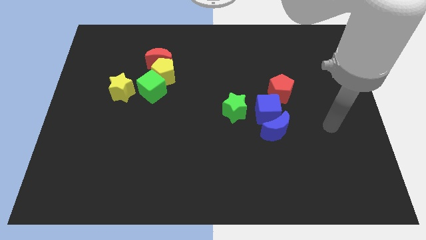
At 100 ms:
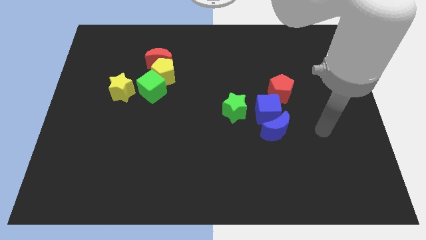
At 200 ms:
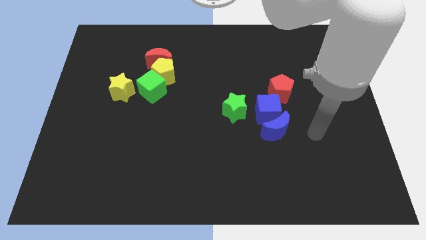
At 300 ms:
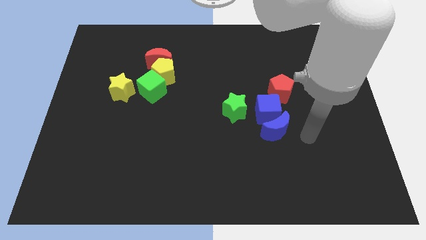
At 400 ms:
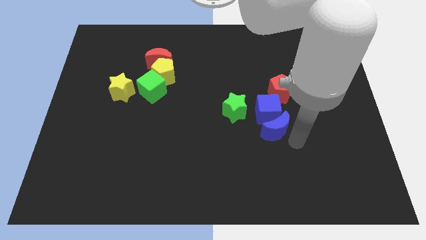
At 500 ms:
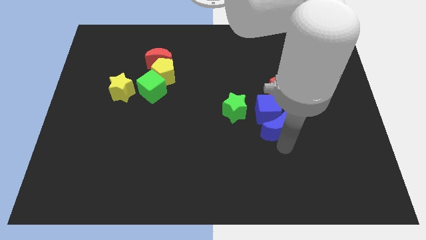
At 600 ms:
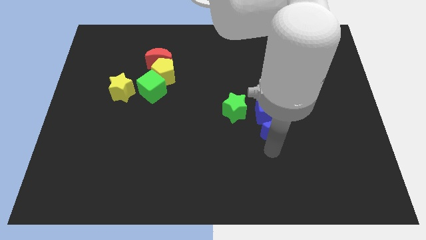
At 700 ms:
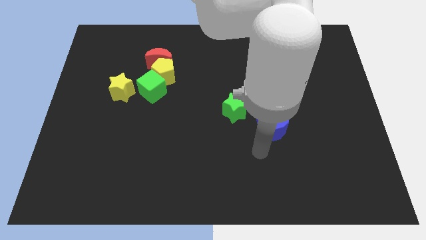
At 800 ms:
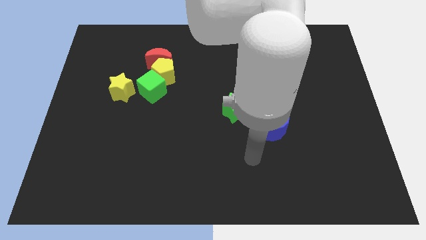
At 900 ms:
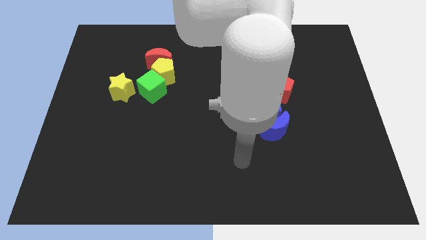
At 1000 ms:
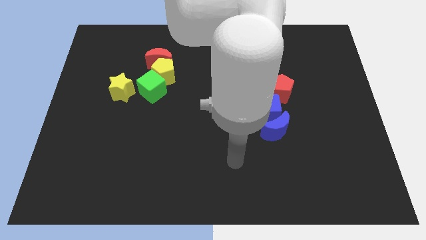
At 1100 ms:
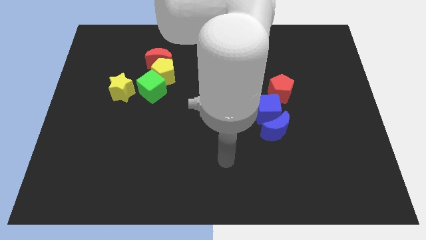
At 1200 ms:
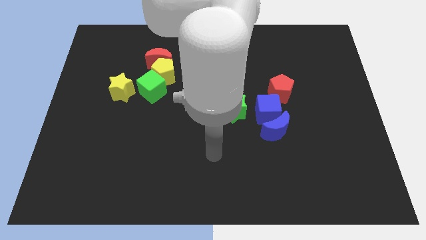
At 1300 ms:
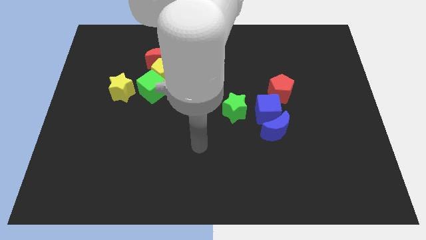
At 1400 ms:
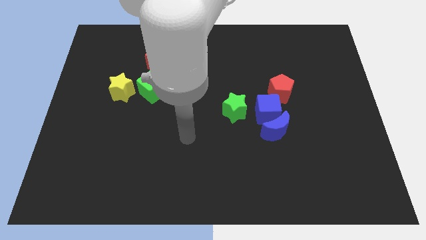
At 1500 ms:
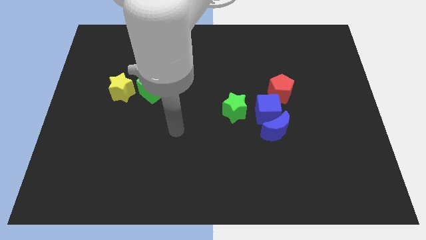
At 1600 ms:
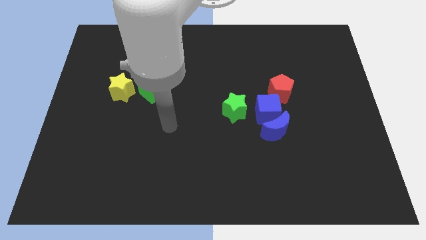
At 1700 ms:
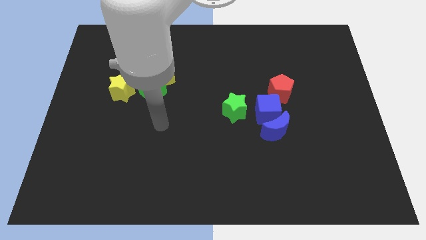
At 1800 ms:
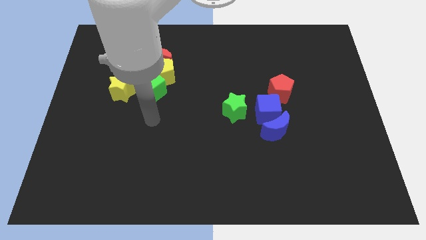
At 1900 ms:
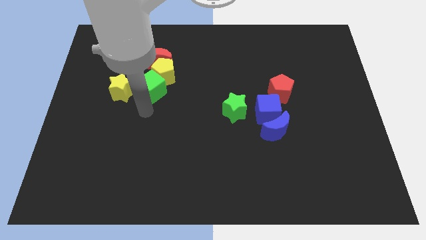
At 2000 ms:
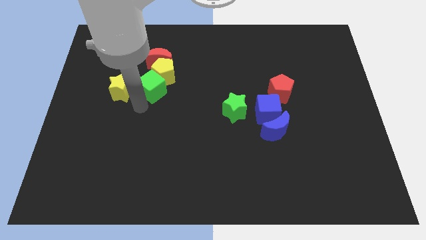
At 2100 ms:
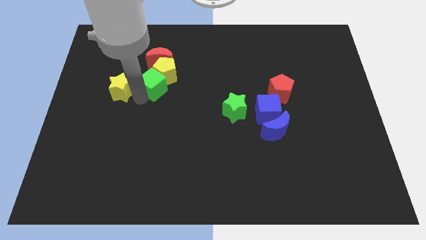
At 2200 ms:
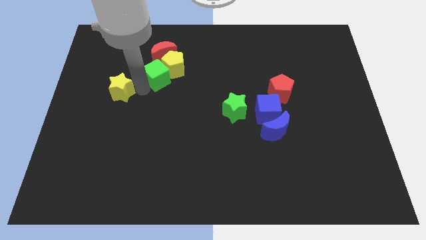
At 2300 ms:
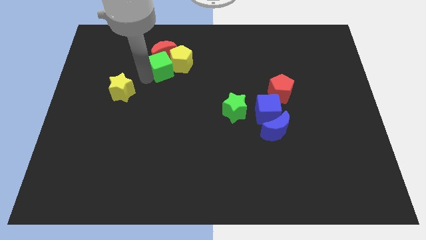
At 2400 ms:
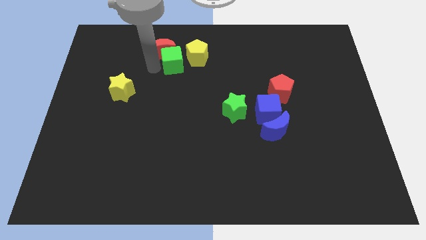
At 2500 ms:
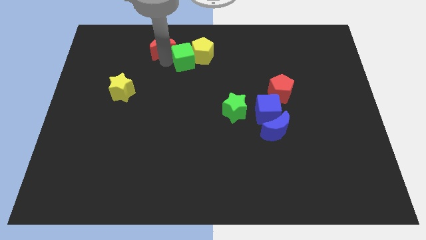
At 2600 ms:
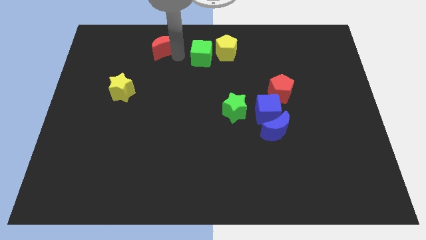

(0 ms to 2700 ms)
move the yellow pentagon away from the red moon and green cube

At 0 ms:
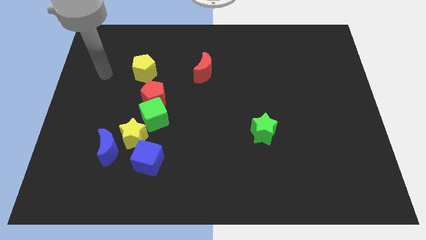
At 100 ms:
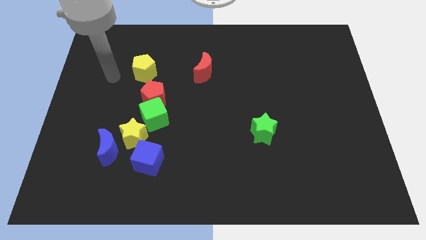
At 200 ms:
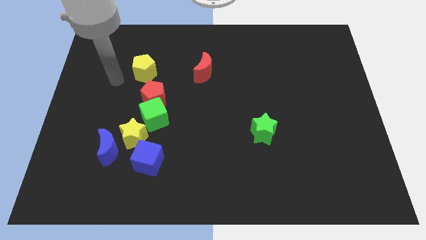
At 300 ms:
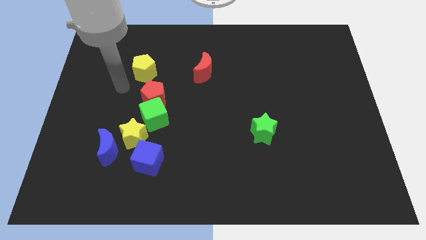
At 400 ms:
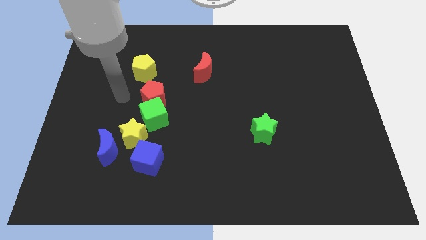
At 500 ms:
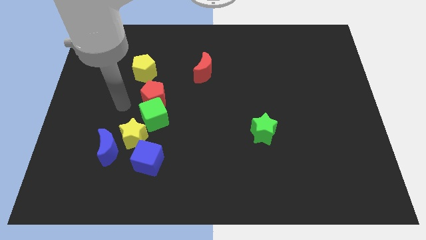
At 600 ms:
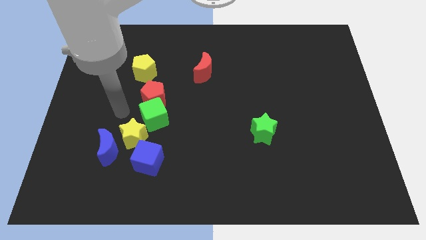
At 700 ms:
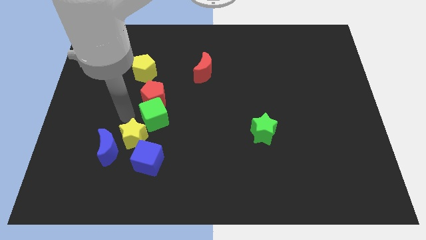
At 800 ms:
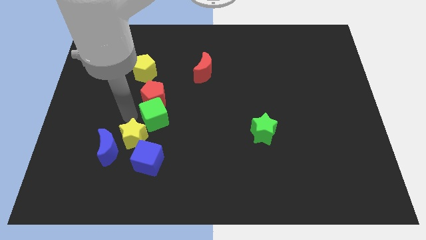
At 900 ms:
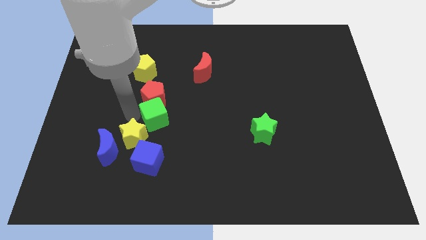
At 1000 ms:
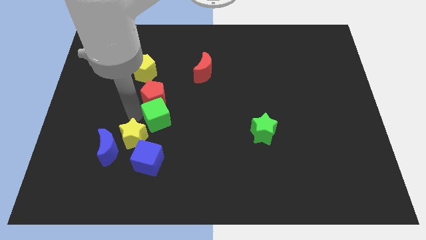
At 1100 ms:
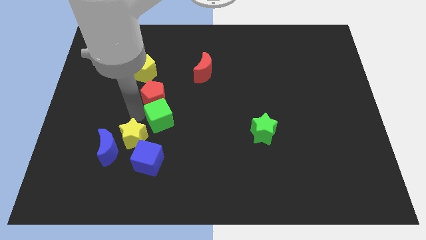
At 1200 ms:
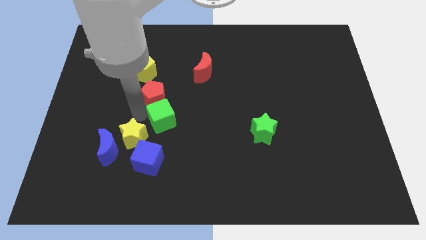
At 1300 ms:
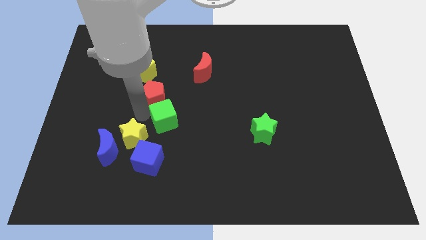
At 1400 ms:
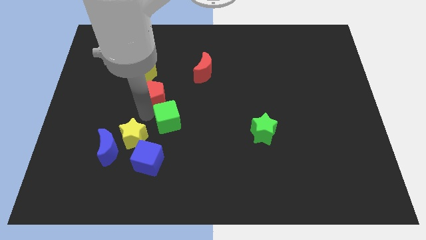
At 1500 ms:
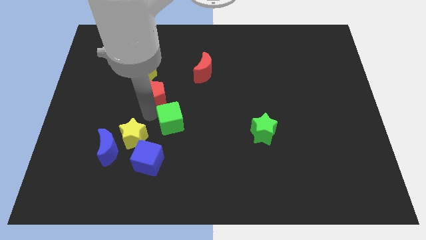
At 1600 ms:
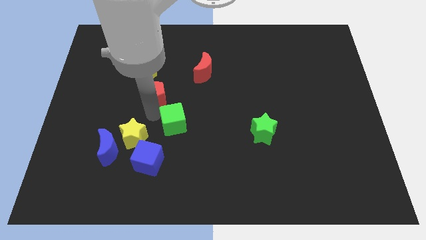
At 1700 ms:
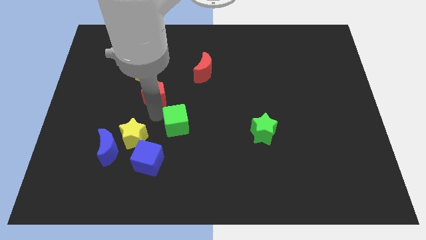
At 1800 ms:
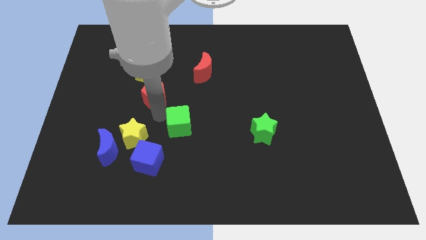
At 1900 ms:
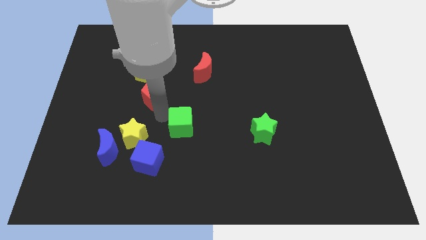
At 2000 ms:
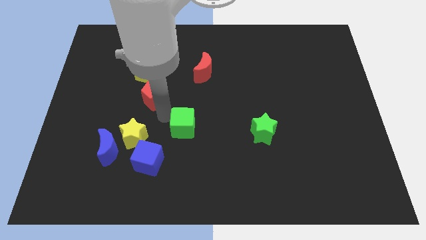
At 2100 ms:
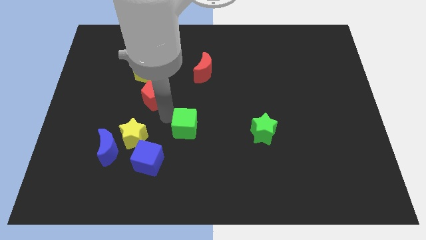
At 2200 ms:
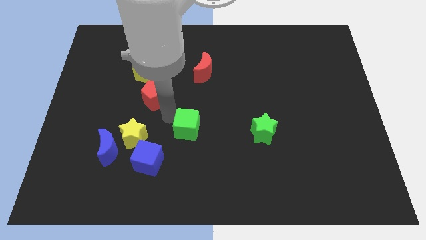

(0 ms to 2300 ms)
move the green cube away from the red pentagon and yellow star

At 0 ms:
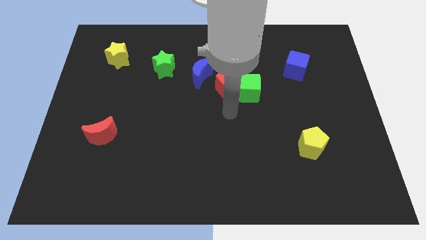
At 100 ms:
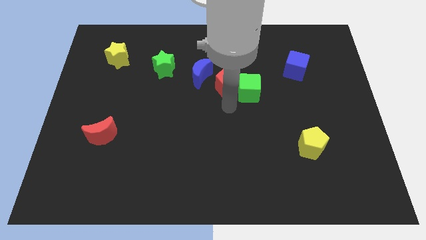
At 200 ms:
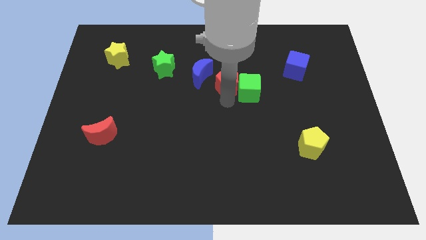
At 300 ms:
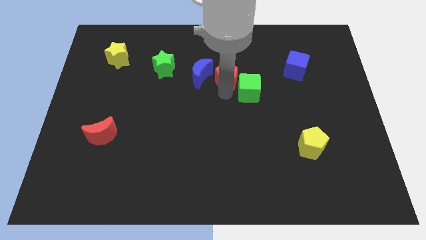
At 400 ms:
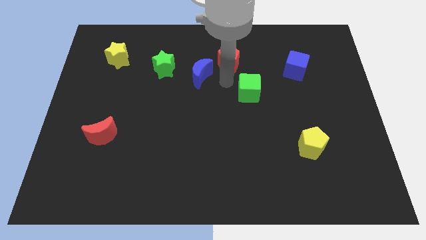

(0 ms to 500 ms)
pull the green cube apart from the red pentagon

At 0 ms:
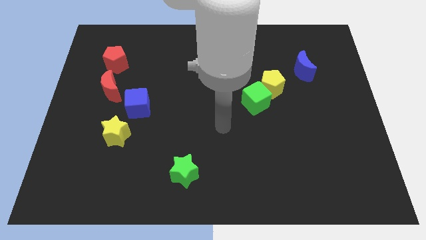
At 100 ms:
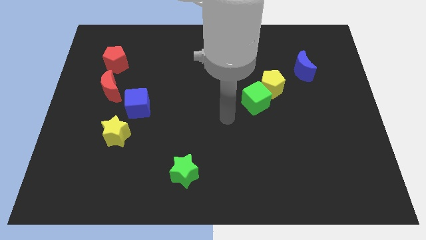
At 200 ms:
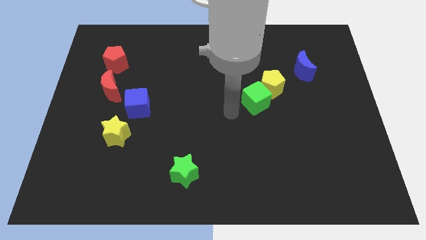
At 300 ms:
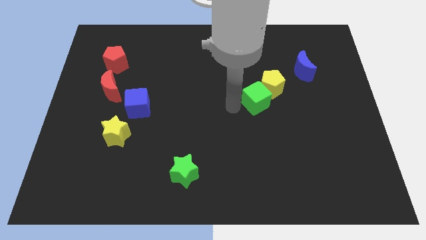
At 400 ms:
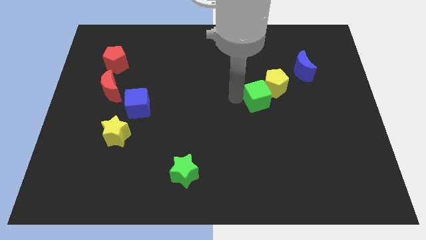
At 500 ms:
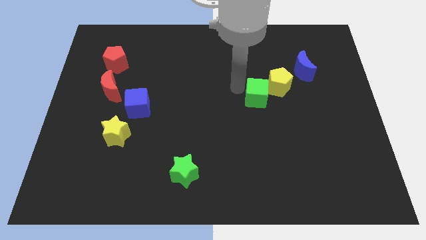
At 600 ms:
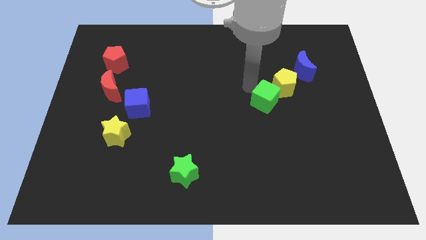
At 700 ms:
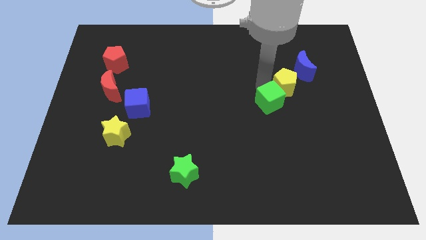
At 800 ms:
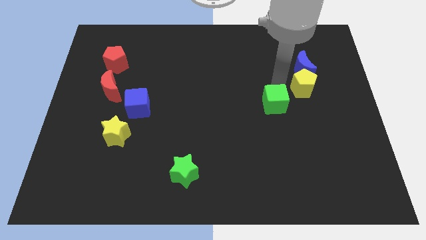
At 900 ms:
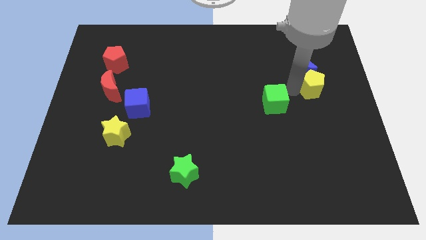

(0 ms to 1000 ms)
pull the green cube apart from the yellow pentagon

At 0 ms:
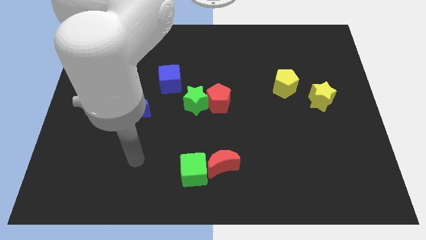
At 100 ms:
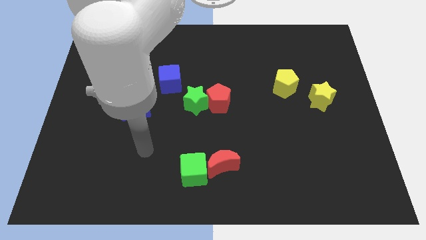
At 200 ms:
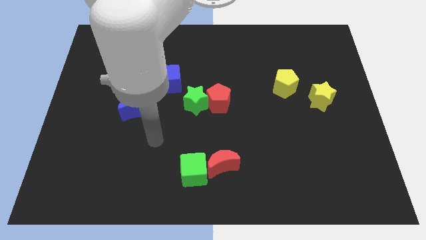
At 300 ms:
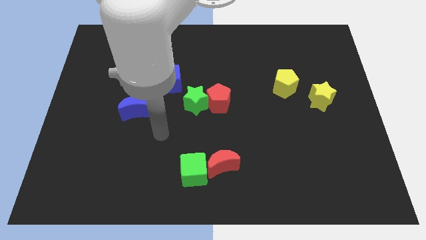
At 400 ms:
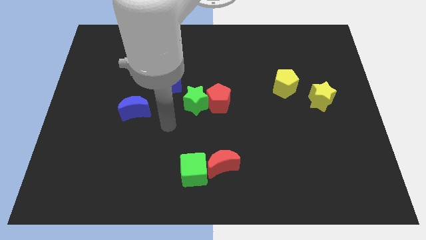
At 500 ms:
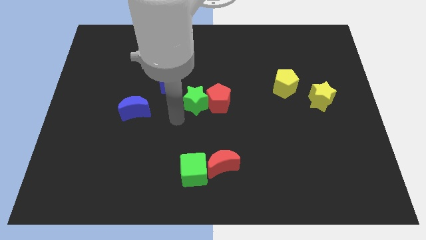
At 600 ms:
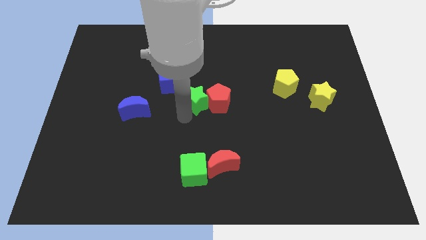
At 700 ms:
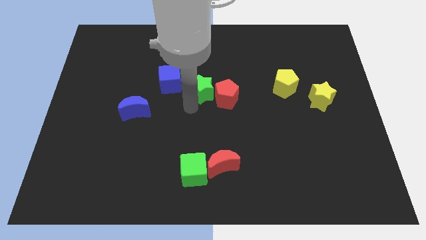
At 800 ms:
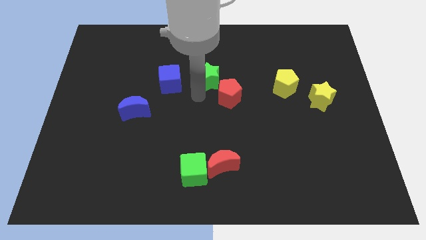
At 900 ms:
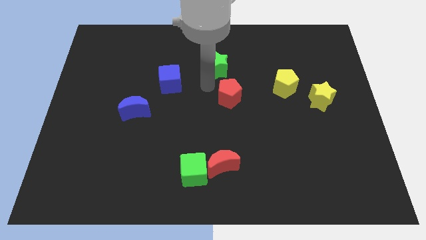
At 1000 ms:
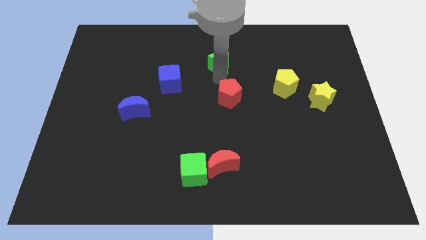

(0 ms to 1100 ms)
separate the red pentagon from the green star

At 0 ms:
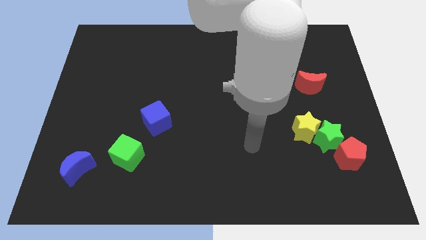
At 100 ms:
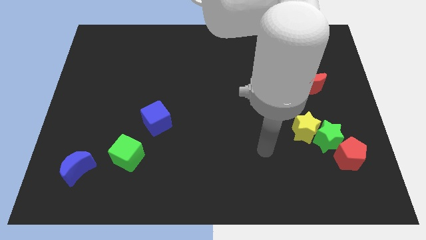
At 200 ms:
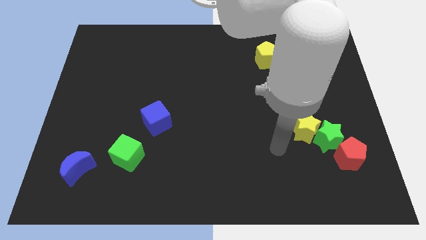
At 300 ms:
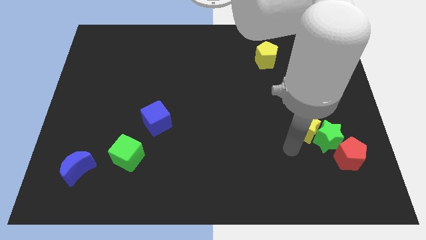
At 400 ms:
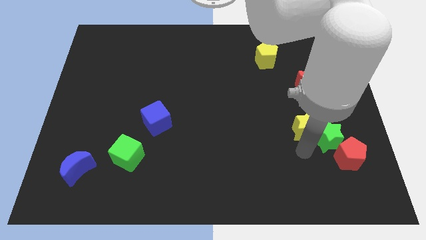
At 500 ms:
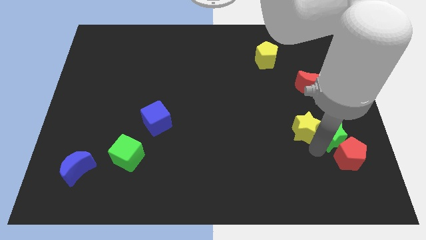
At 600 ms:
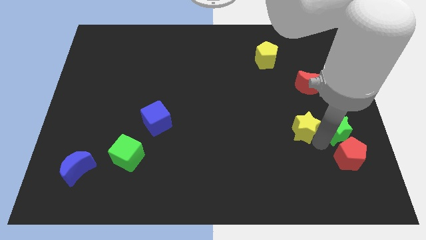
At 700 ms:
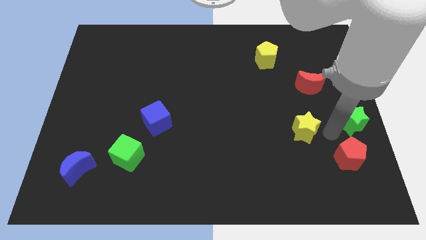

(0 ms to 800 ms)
pull the yellow star apart from the green star

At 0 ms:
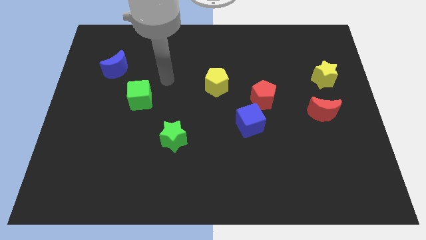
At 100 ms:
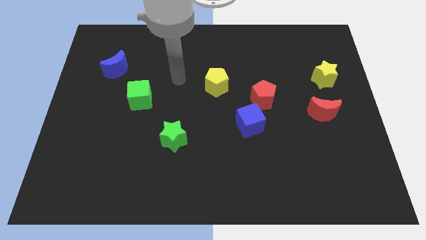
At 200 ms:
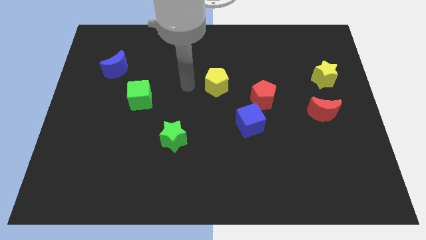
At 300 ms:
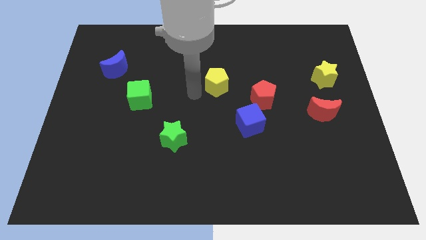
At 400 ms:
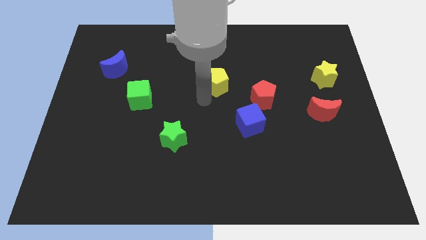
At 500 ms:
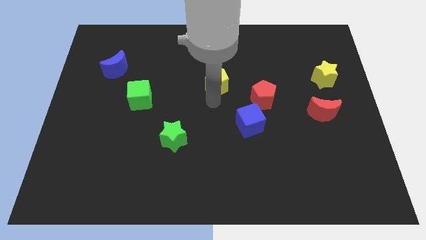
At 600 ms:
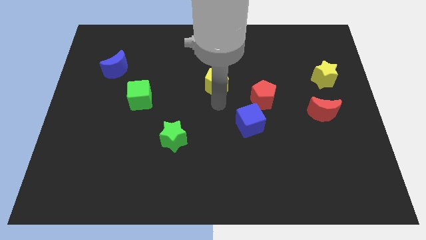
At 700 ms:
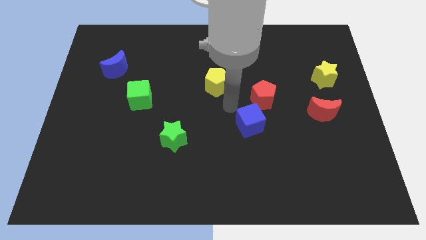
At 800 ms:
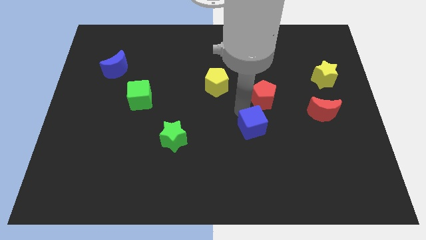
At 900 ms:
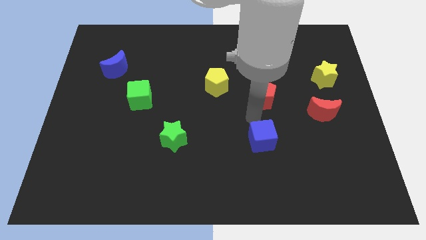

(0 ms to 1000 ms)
move the red pentagon away from the blue cube
